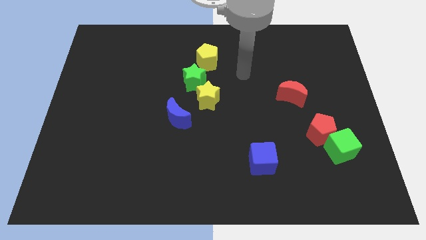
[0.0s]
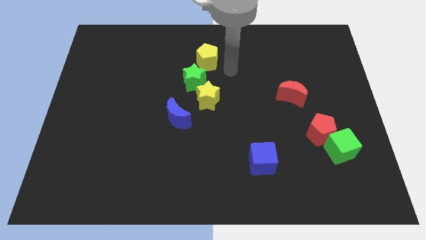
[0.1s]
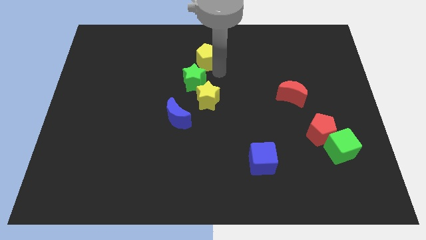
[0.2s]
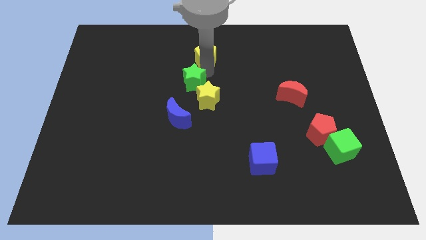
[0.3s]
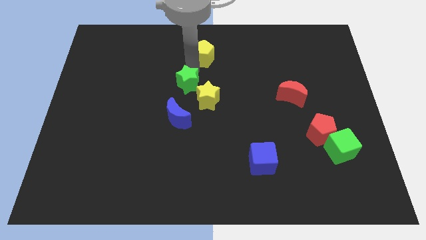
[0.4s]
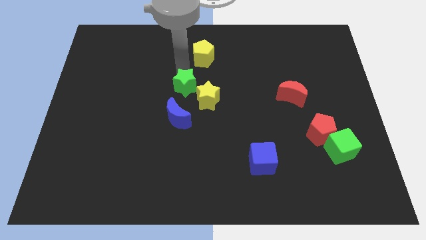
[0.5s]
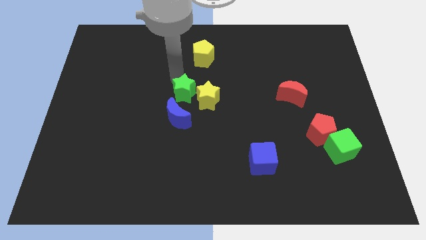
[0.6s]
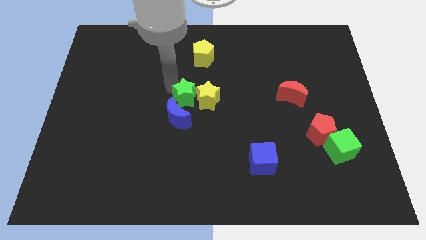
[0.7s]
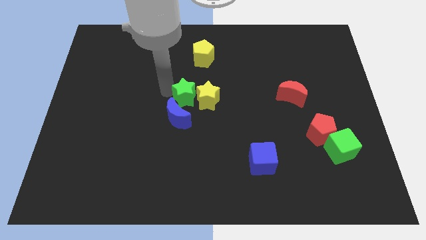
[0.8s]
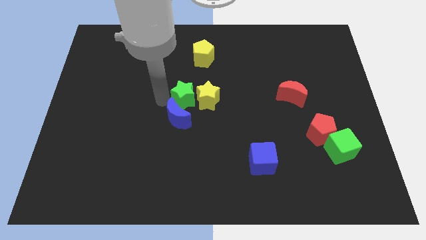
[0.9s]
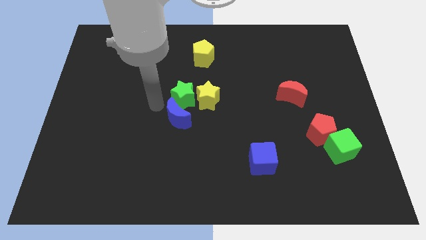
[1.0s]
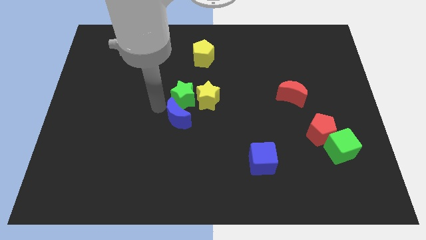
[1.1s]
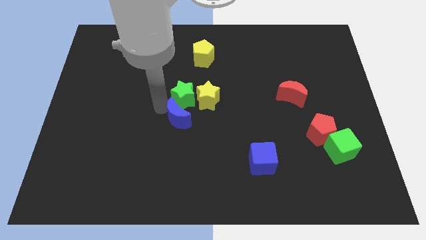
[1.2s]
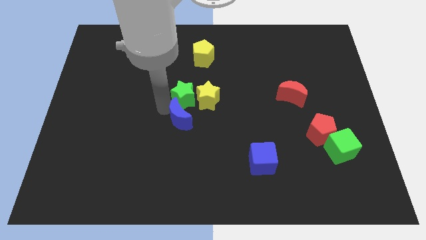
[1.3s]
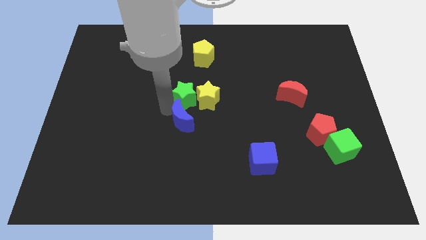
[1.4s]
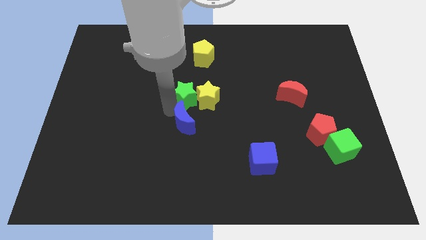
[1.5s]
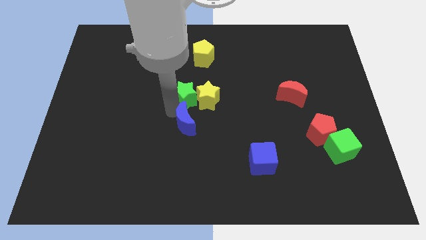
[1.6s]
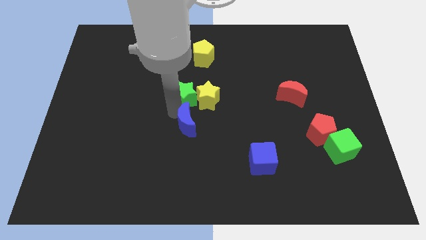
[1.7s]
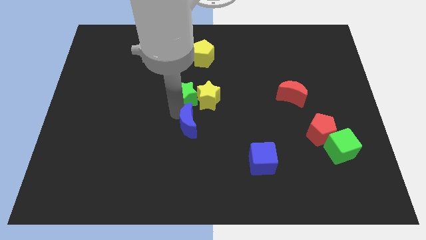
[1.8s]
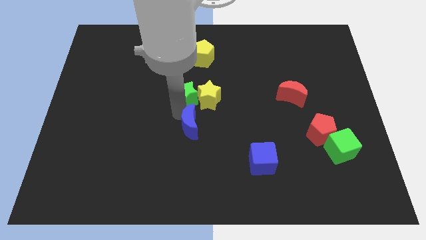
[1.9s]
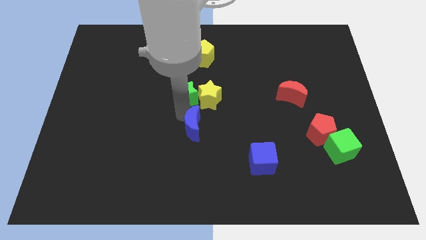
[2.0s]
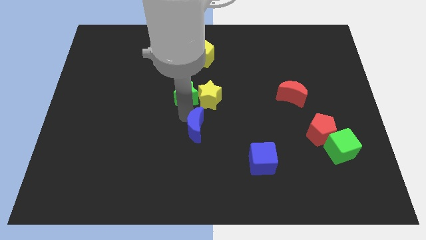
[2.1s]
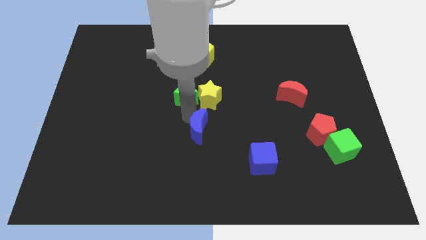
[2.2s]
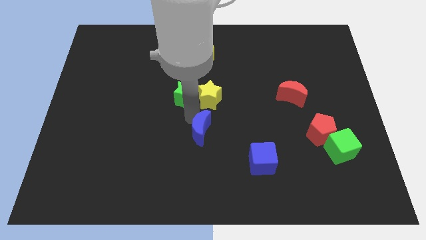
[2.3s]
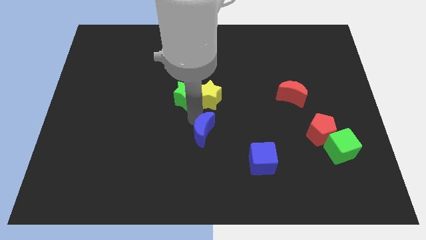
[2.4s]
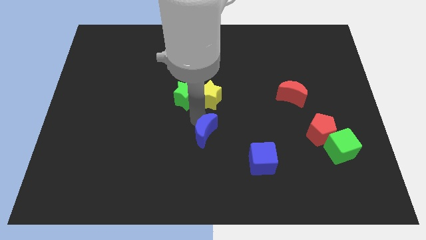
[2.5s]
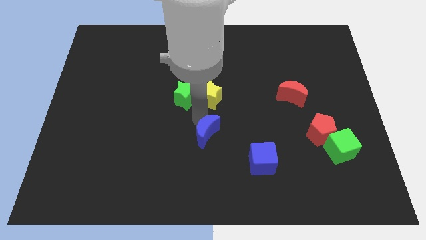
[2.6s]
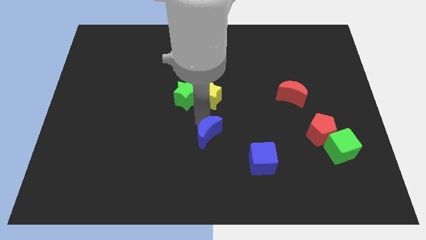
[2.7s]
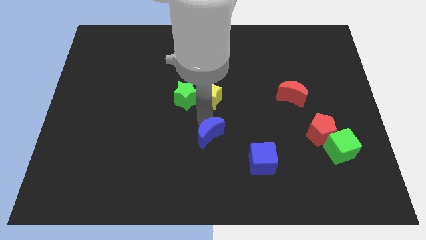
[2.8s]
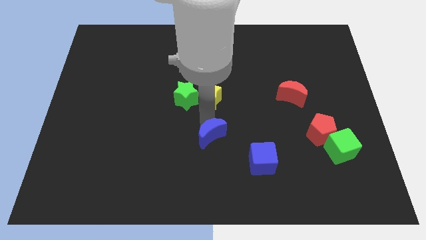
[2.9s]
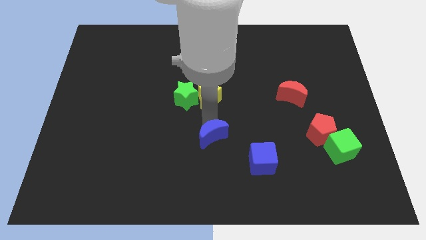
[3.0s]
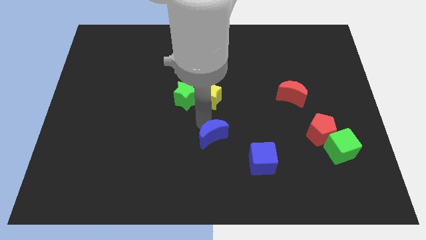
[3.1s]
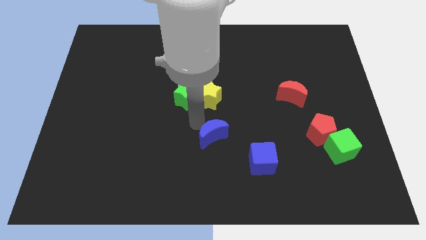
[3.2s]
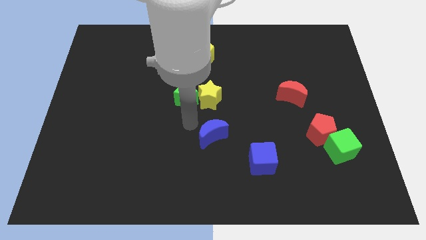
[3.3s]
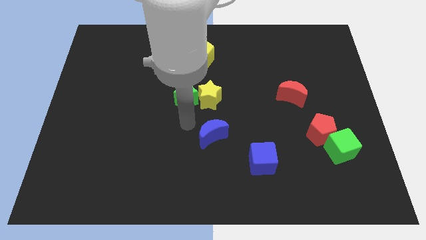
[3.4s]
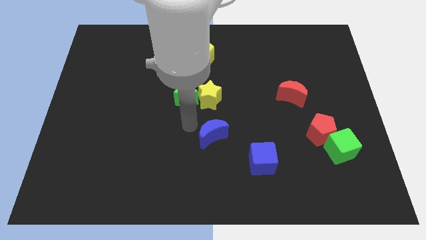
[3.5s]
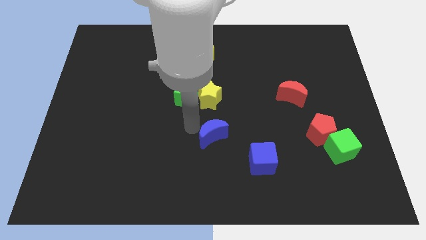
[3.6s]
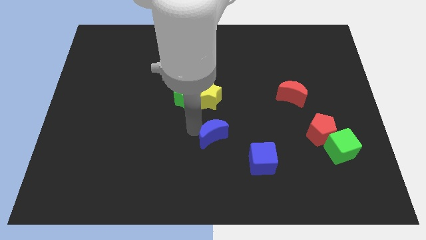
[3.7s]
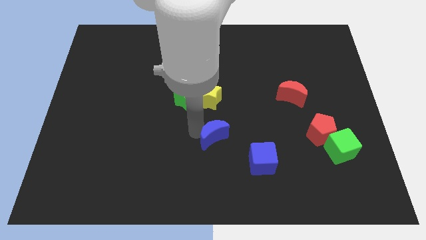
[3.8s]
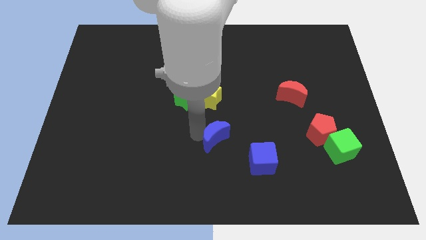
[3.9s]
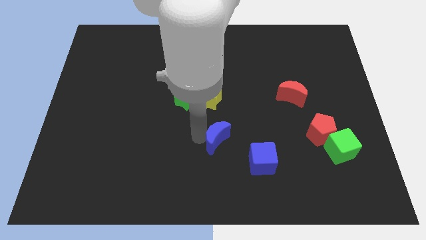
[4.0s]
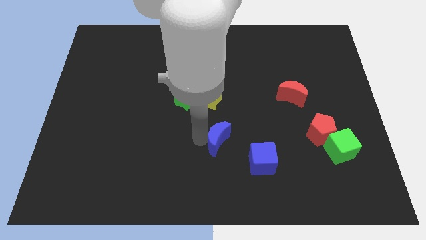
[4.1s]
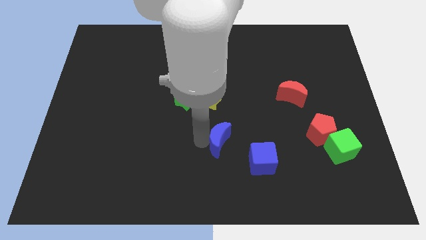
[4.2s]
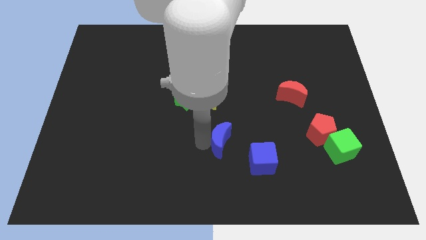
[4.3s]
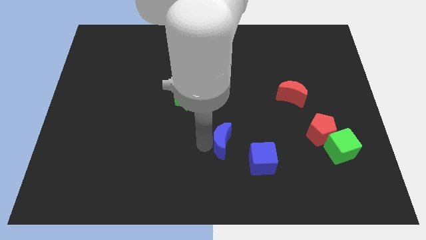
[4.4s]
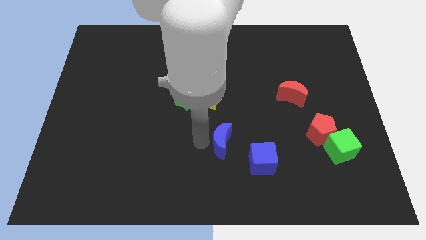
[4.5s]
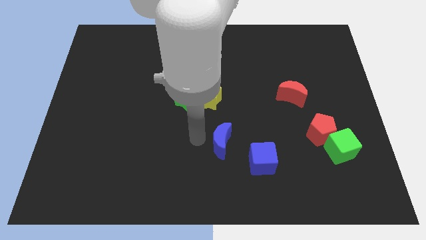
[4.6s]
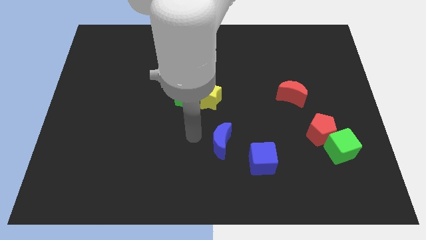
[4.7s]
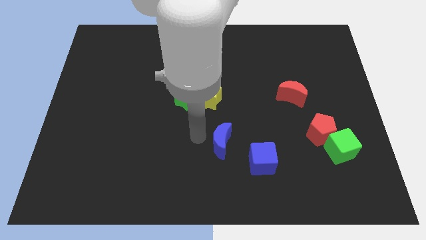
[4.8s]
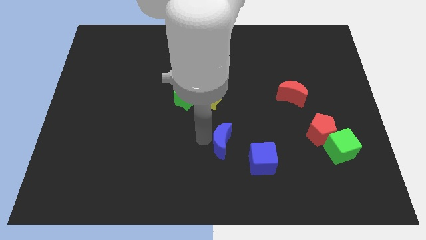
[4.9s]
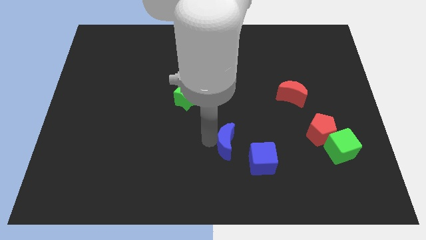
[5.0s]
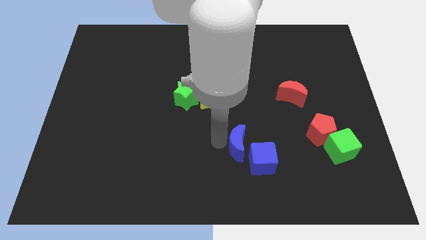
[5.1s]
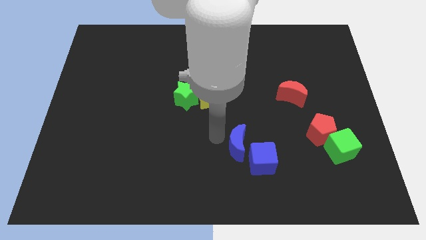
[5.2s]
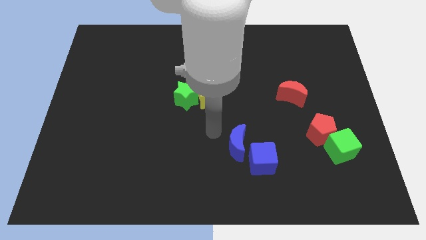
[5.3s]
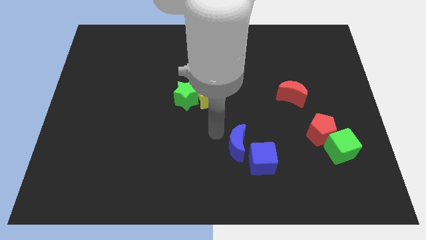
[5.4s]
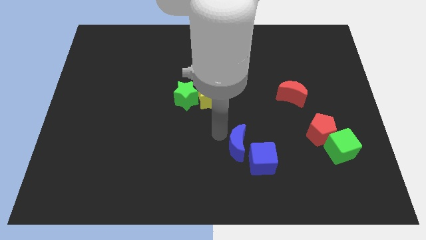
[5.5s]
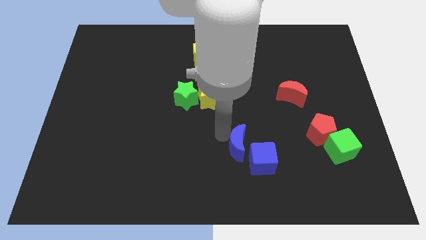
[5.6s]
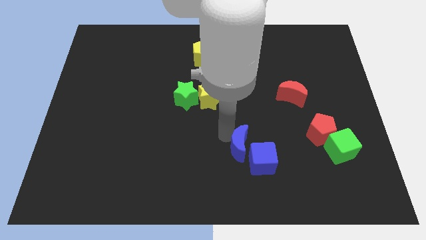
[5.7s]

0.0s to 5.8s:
move the blue moon next to the blue cube

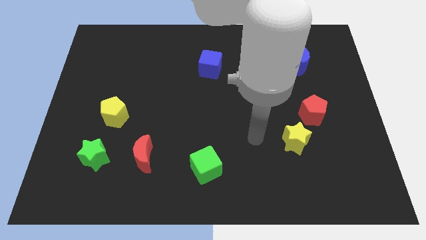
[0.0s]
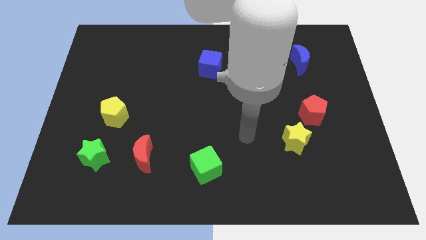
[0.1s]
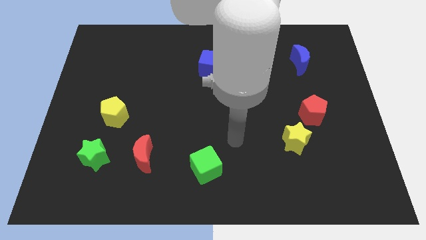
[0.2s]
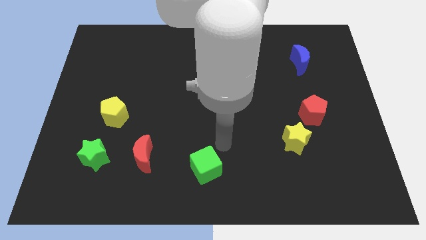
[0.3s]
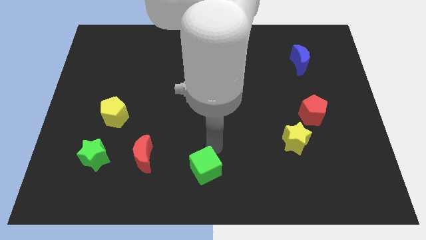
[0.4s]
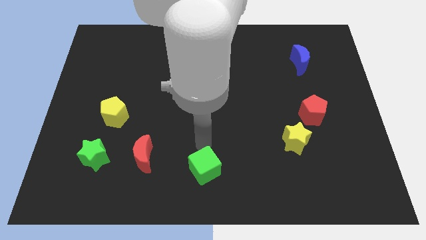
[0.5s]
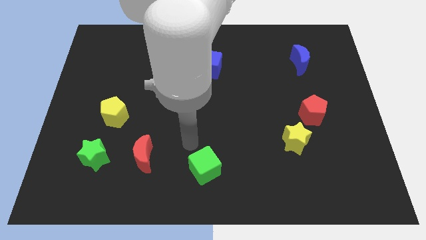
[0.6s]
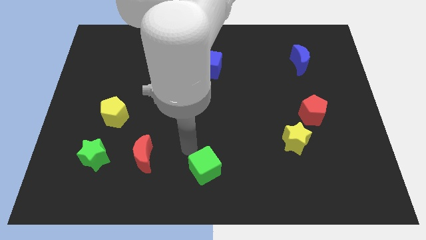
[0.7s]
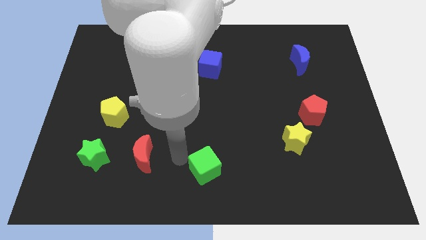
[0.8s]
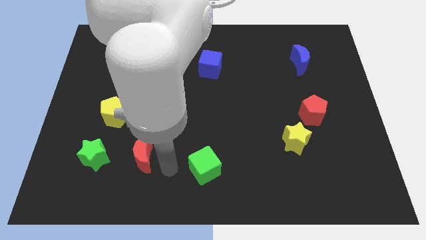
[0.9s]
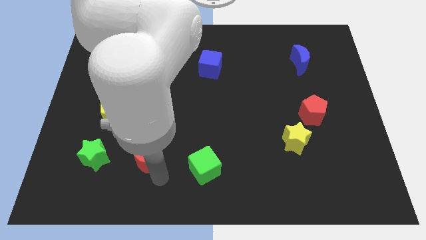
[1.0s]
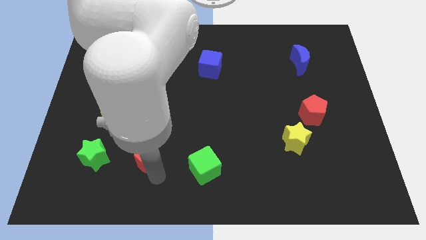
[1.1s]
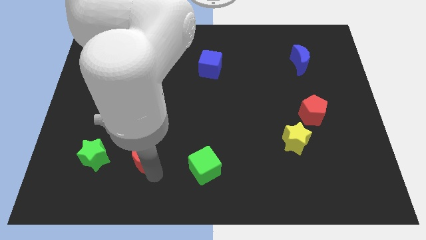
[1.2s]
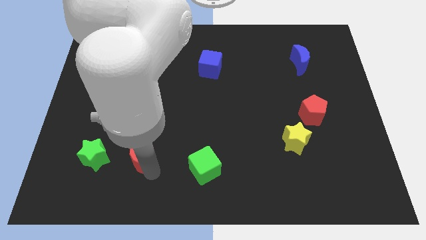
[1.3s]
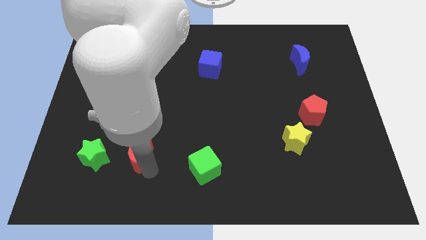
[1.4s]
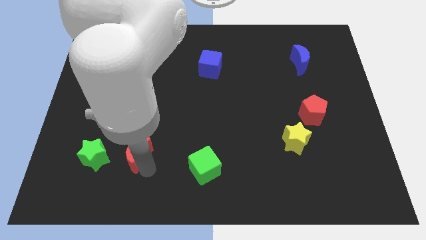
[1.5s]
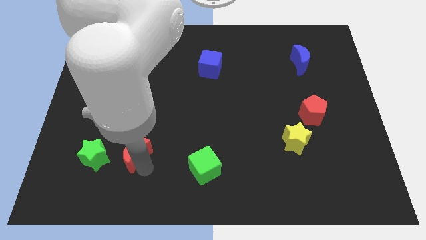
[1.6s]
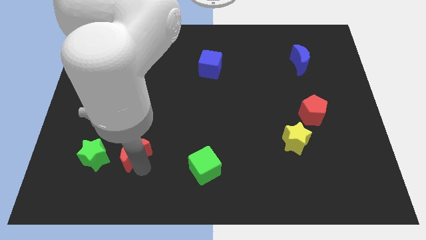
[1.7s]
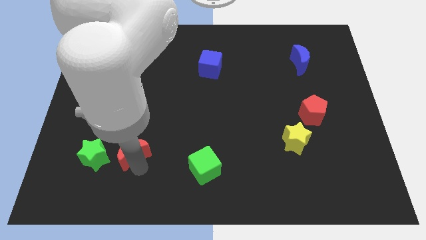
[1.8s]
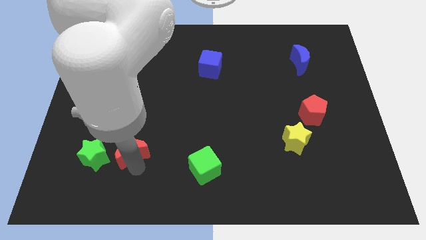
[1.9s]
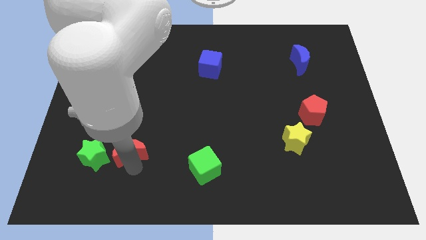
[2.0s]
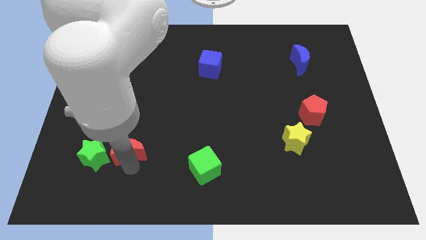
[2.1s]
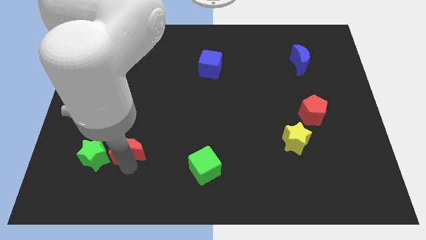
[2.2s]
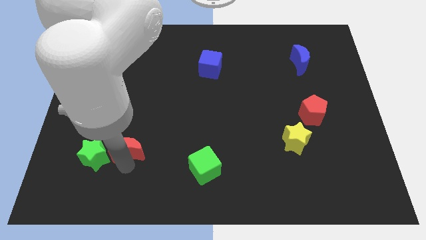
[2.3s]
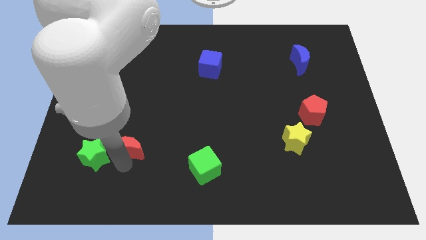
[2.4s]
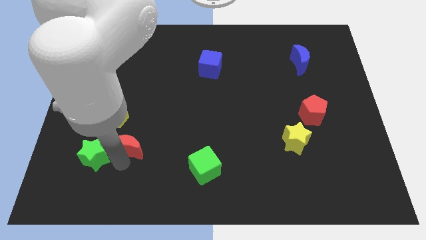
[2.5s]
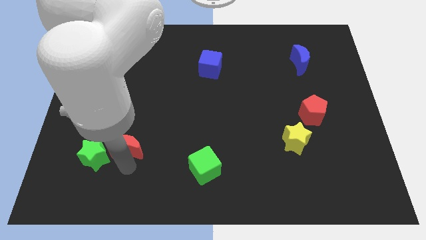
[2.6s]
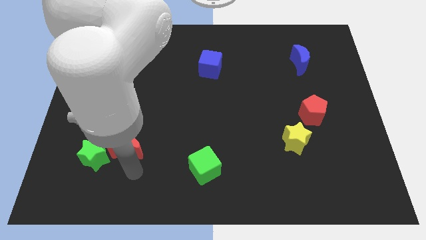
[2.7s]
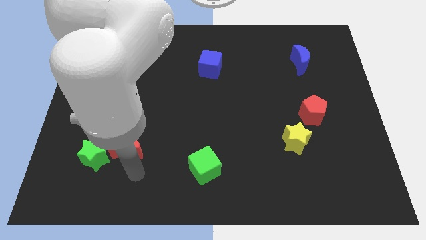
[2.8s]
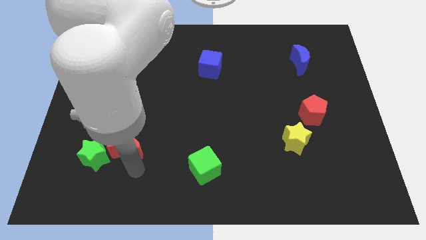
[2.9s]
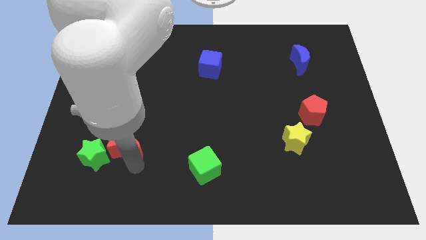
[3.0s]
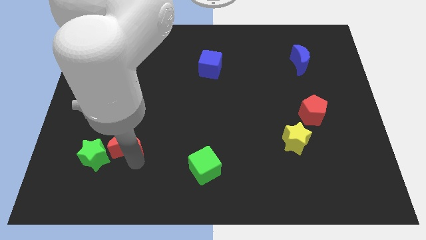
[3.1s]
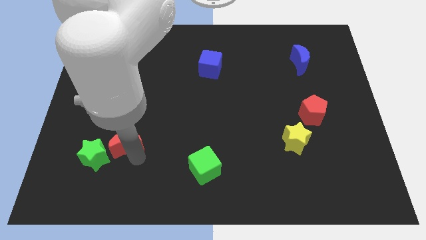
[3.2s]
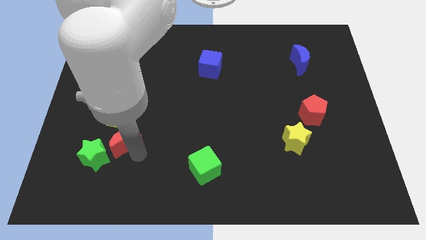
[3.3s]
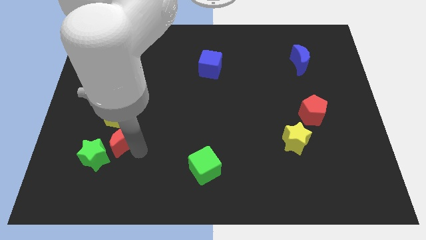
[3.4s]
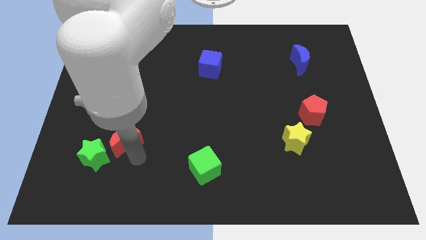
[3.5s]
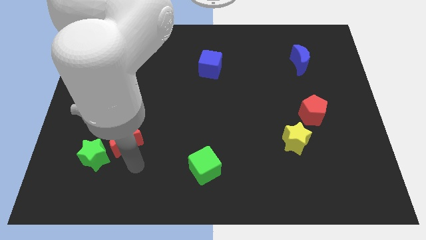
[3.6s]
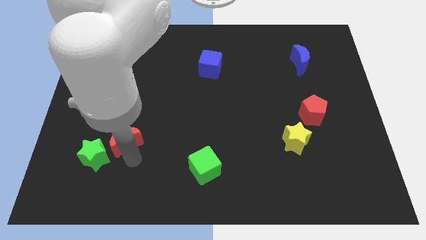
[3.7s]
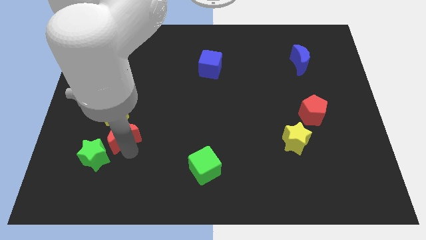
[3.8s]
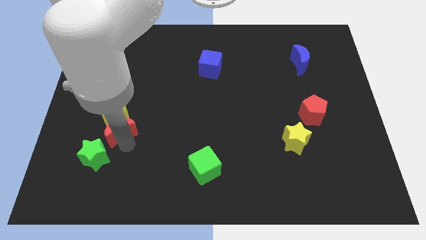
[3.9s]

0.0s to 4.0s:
push the red moon to the yellow pentagon
